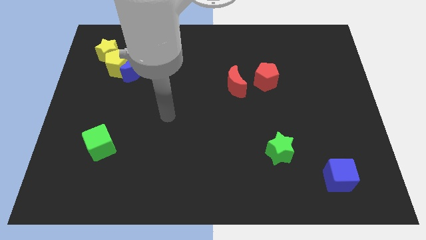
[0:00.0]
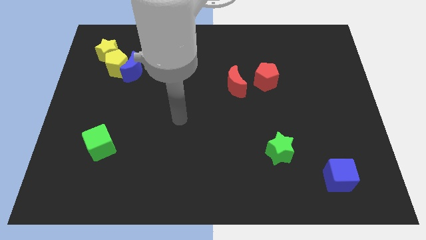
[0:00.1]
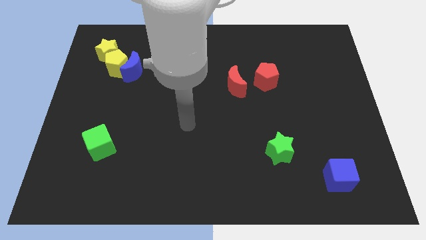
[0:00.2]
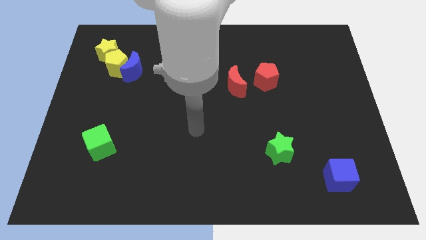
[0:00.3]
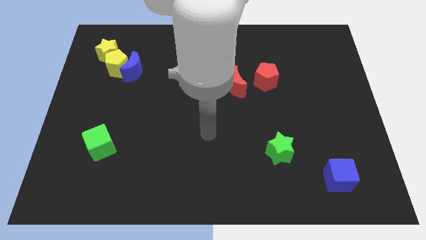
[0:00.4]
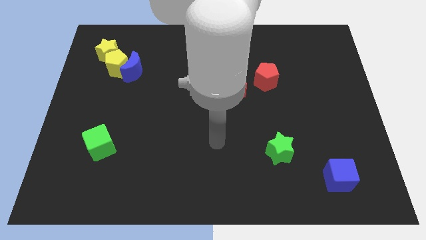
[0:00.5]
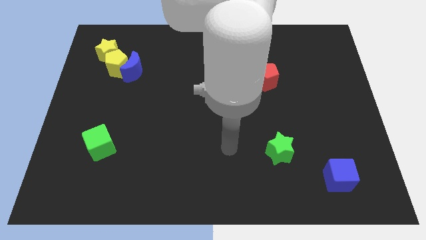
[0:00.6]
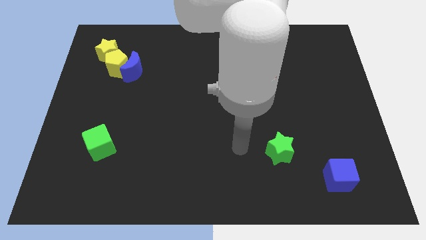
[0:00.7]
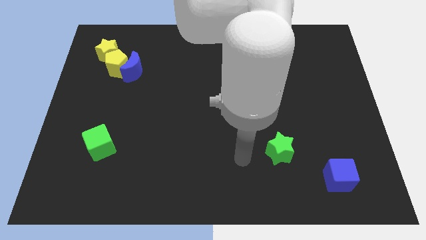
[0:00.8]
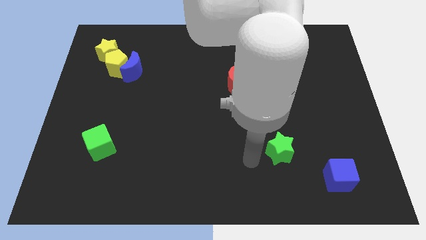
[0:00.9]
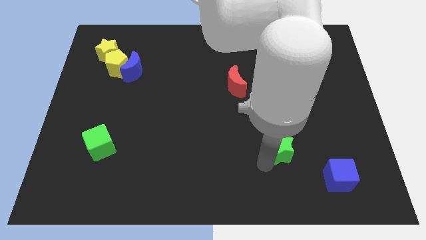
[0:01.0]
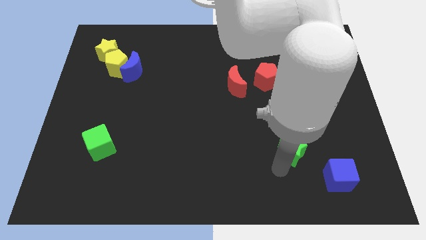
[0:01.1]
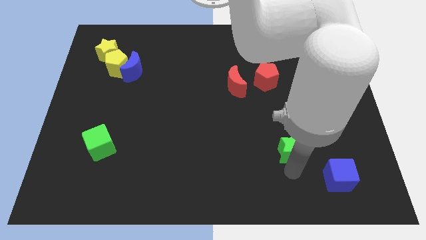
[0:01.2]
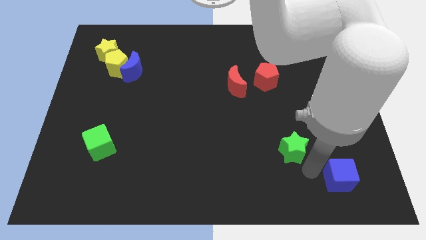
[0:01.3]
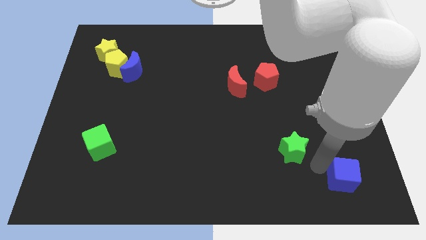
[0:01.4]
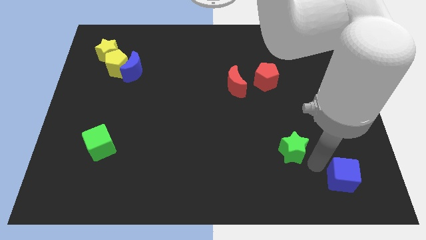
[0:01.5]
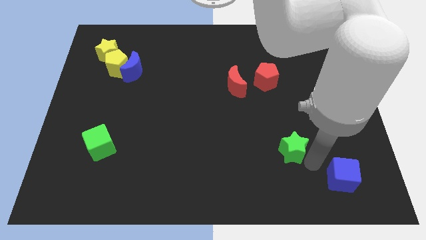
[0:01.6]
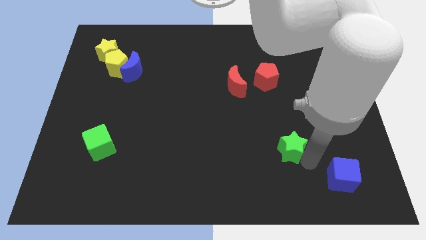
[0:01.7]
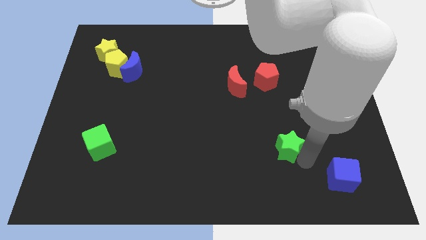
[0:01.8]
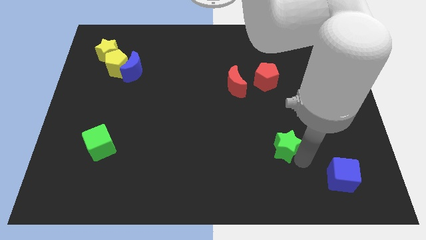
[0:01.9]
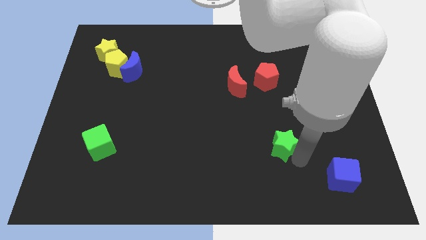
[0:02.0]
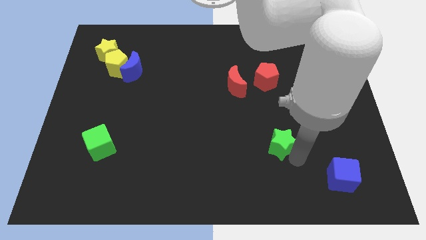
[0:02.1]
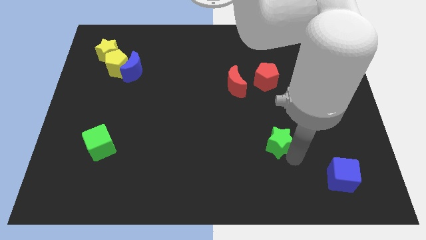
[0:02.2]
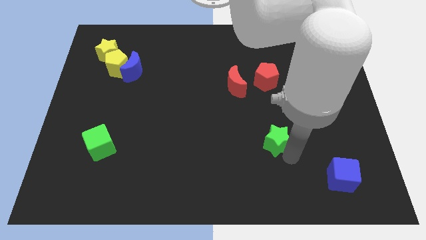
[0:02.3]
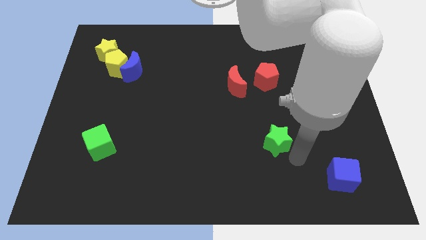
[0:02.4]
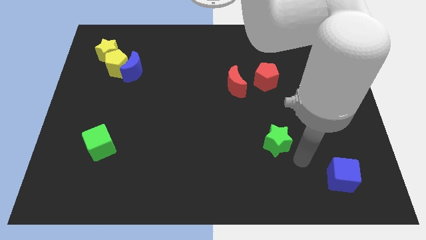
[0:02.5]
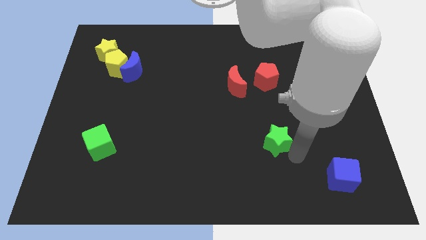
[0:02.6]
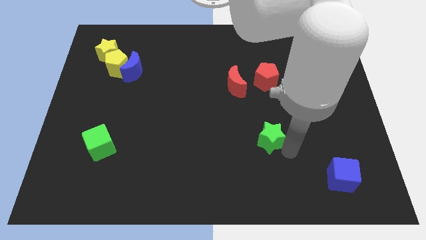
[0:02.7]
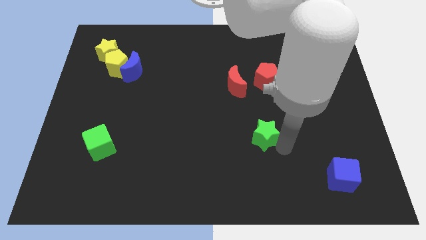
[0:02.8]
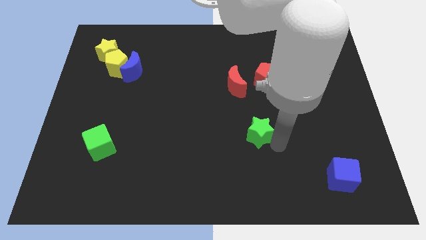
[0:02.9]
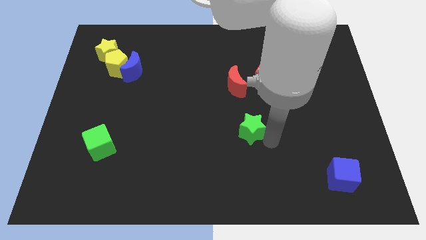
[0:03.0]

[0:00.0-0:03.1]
move the green star slightly upwards and left diagonally

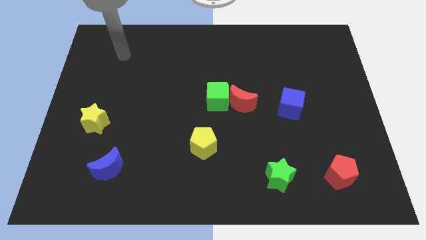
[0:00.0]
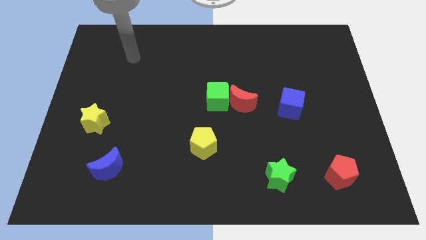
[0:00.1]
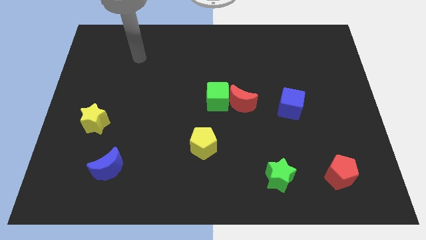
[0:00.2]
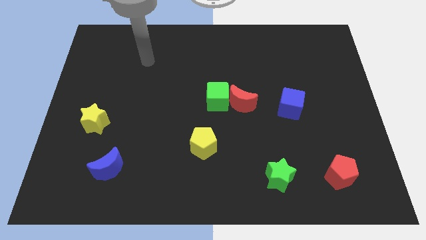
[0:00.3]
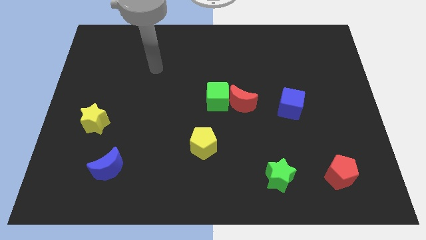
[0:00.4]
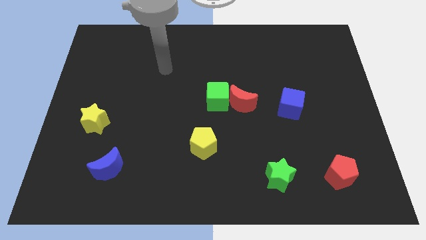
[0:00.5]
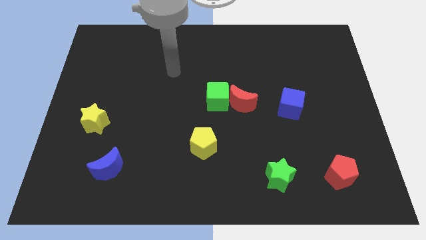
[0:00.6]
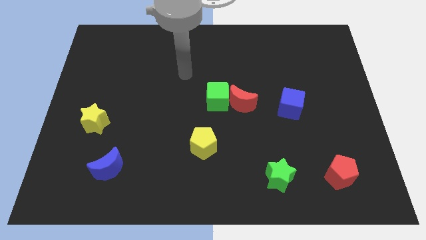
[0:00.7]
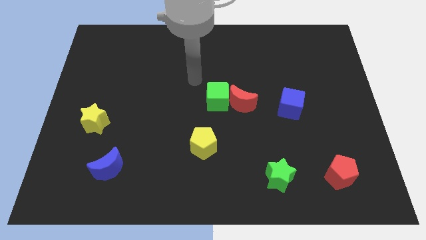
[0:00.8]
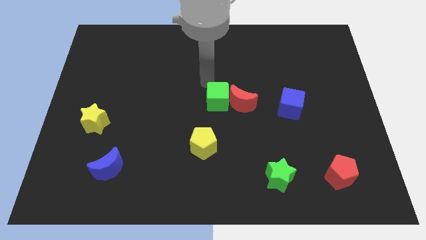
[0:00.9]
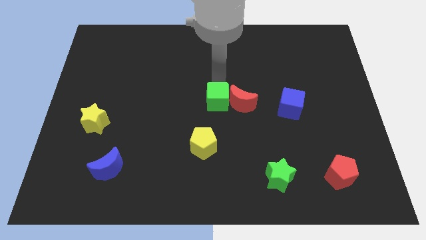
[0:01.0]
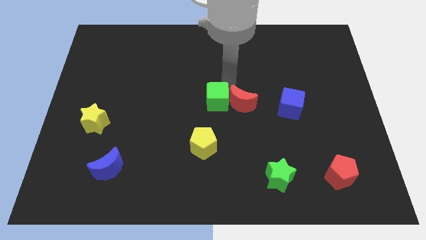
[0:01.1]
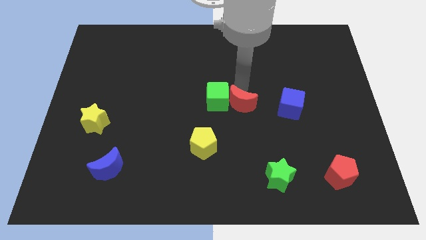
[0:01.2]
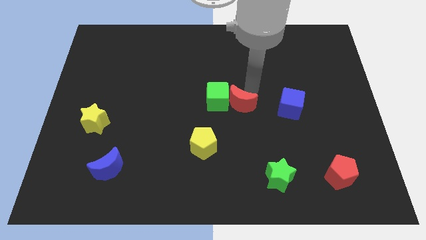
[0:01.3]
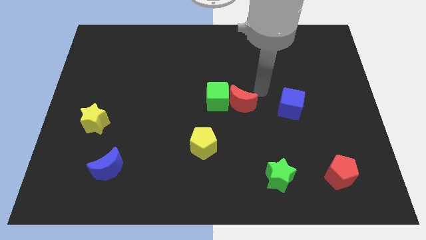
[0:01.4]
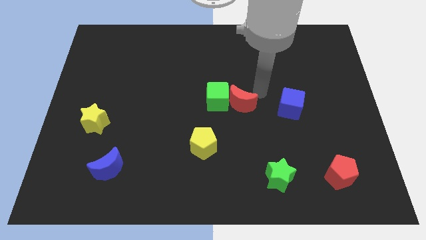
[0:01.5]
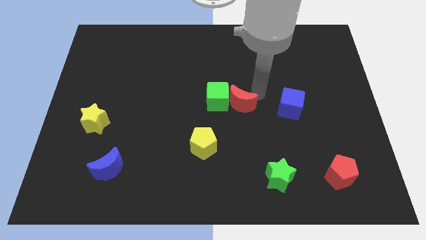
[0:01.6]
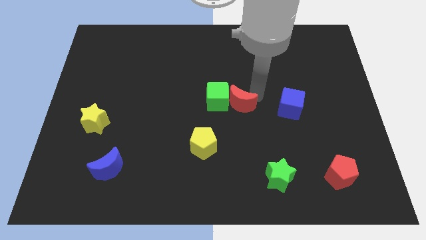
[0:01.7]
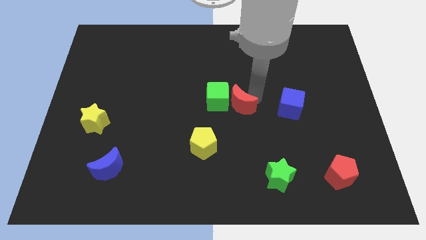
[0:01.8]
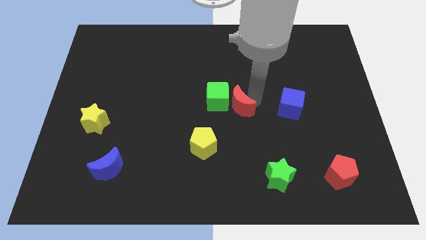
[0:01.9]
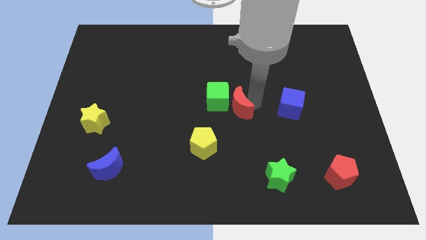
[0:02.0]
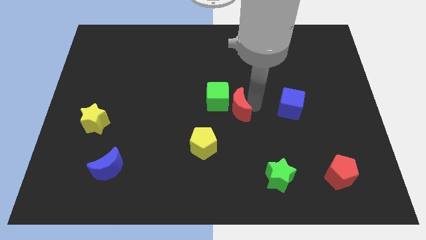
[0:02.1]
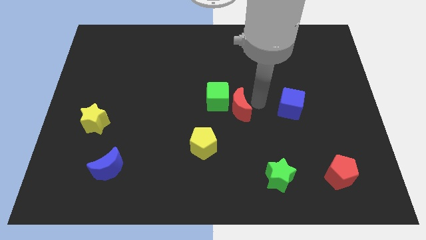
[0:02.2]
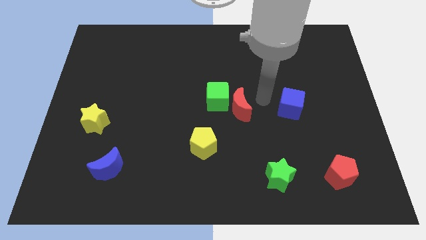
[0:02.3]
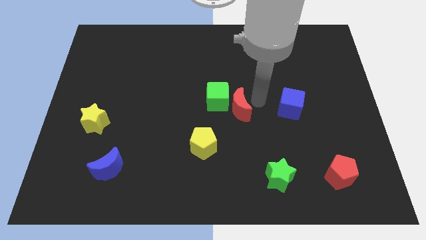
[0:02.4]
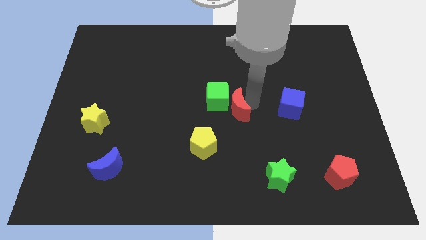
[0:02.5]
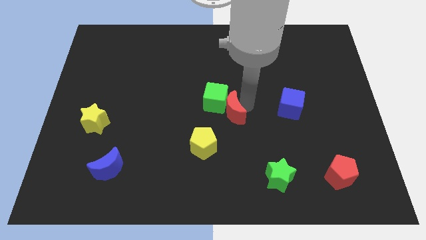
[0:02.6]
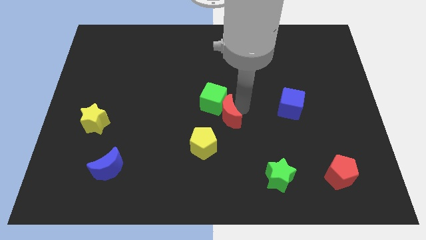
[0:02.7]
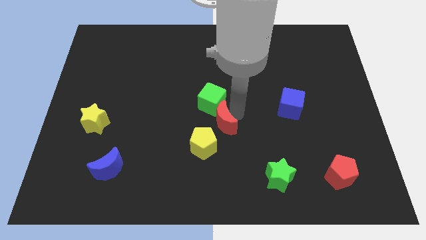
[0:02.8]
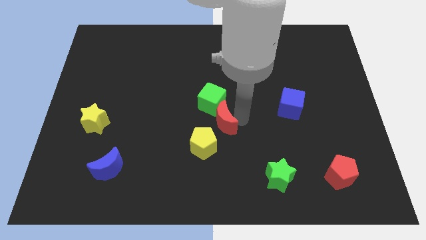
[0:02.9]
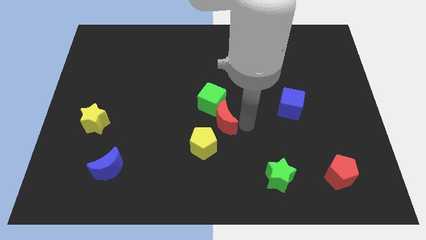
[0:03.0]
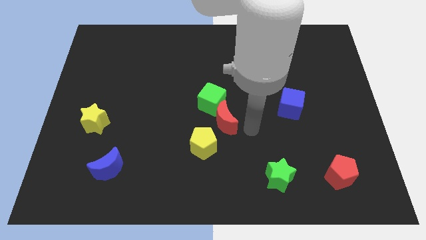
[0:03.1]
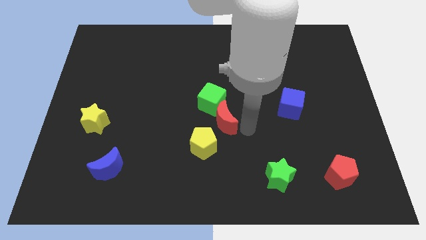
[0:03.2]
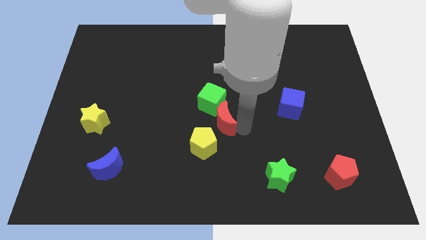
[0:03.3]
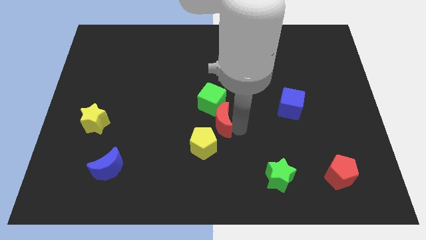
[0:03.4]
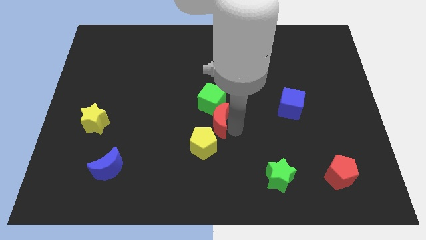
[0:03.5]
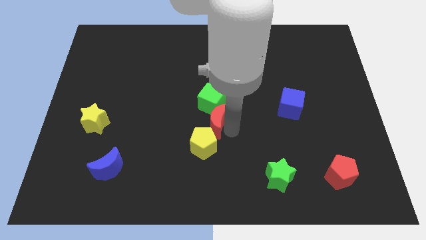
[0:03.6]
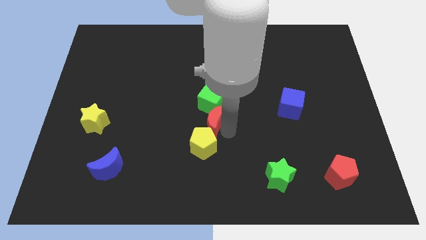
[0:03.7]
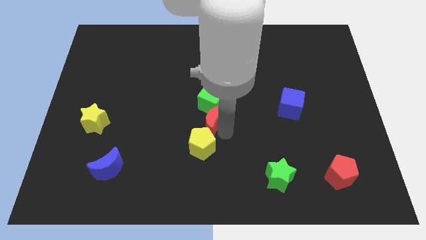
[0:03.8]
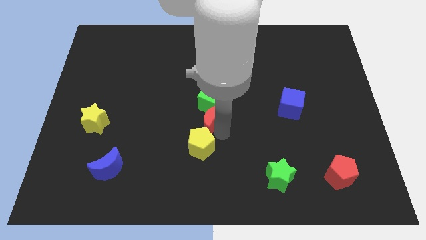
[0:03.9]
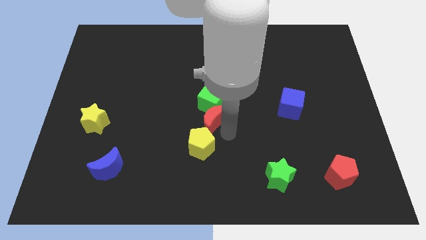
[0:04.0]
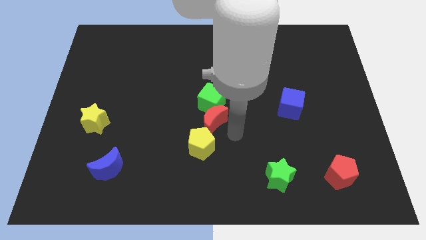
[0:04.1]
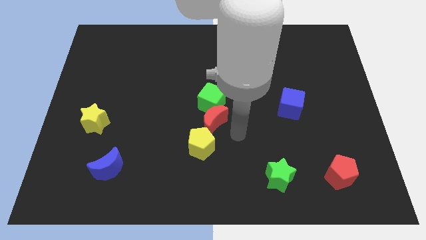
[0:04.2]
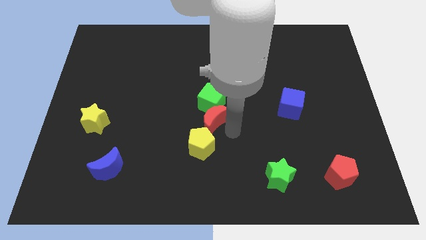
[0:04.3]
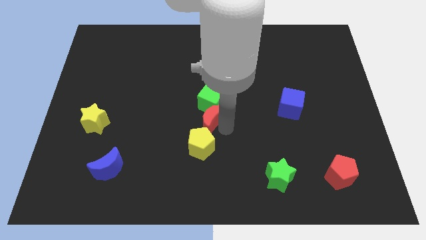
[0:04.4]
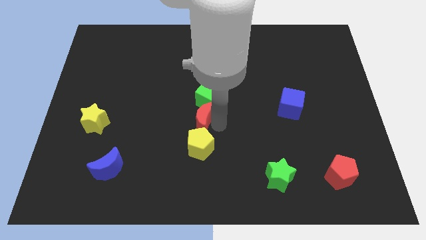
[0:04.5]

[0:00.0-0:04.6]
slide the red moon left a bit

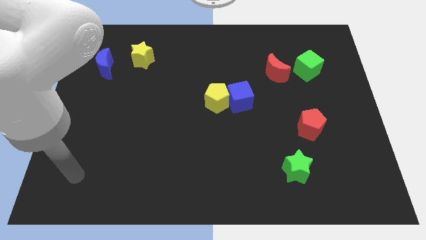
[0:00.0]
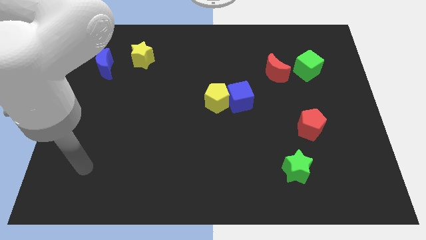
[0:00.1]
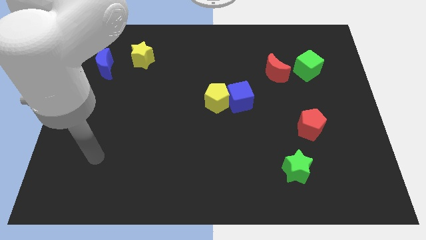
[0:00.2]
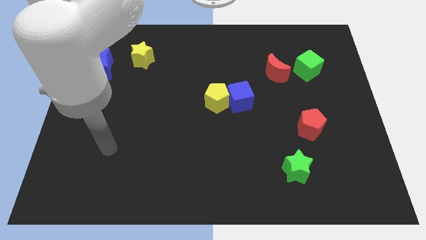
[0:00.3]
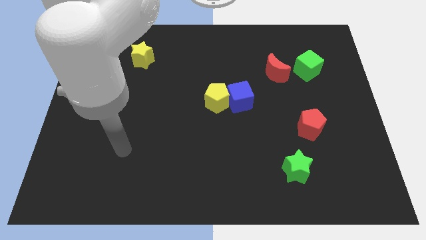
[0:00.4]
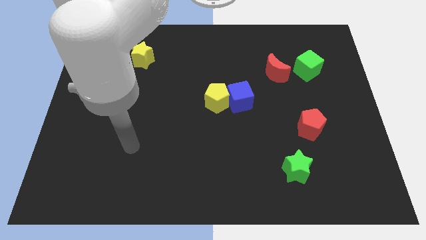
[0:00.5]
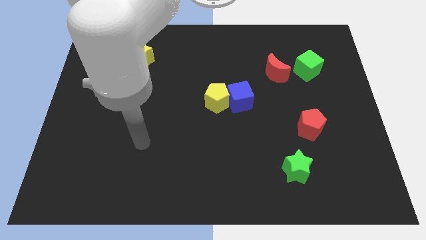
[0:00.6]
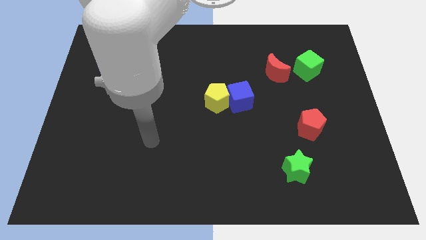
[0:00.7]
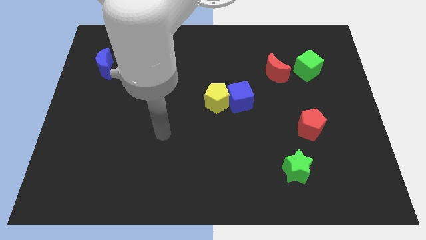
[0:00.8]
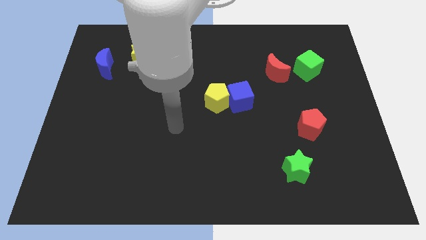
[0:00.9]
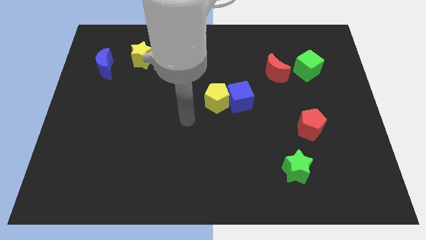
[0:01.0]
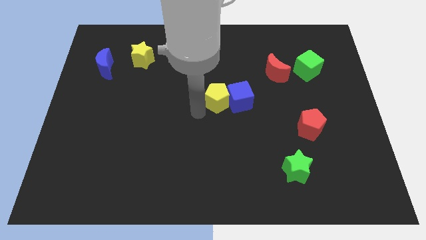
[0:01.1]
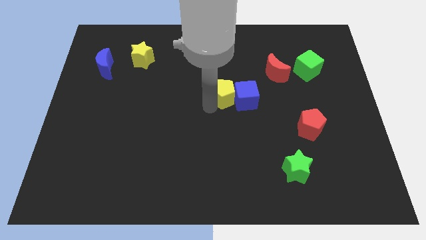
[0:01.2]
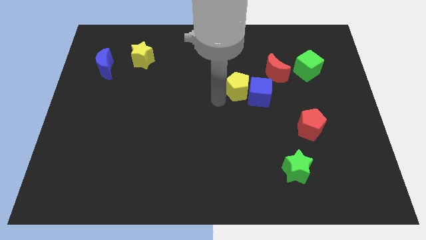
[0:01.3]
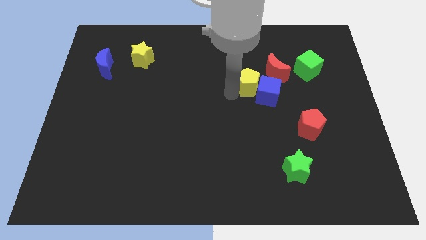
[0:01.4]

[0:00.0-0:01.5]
slightly slide the blue cube to the right
